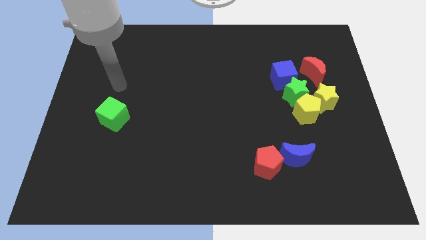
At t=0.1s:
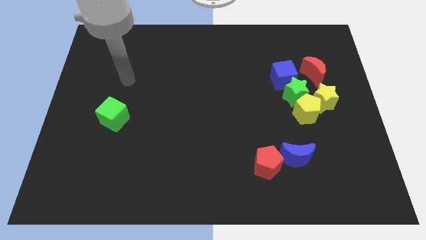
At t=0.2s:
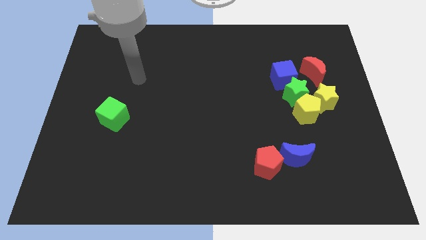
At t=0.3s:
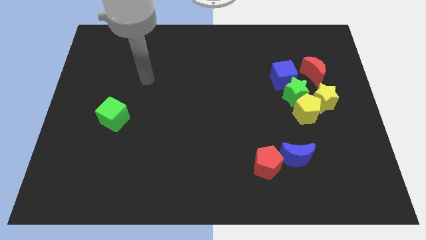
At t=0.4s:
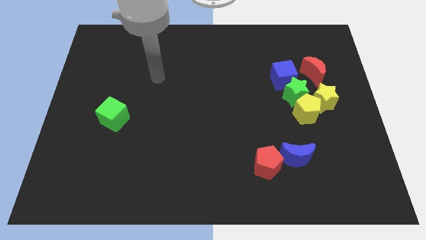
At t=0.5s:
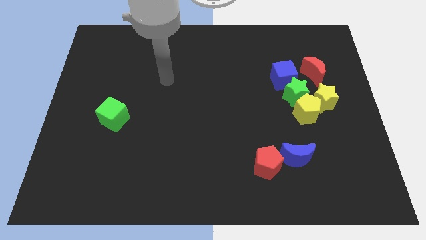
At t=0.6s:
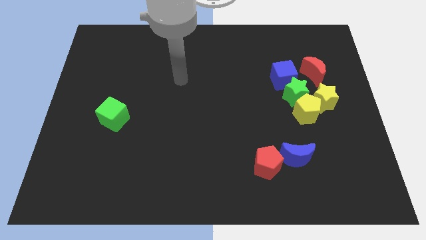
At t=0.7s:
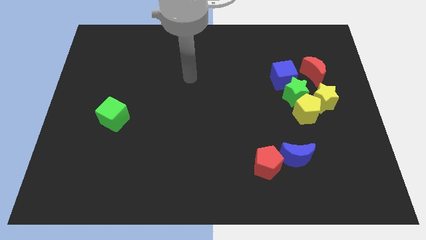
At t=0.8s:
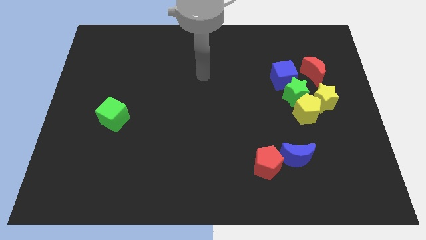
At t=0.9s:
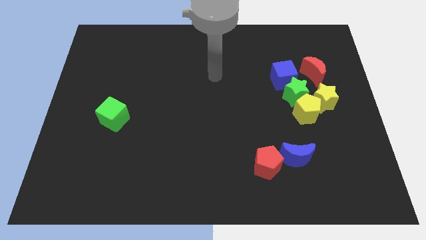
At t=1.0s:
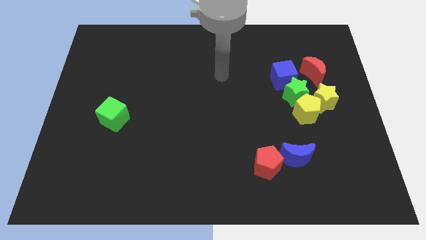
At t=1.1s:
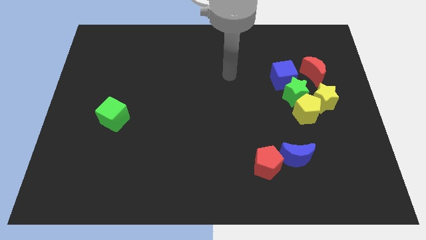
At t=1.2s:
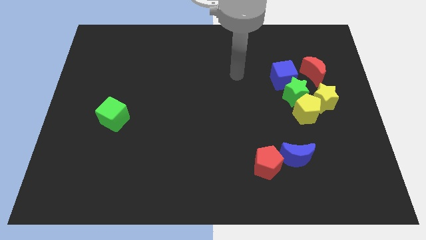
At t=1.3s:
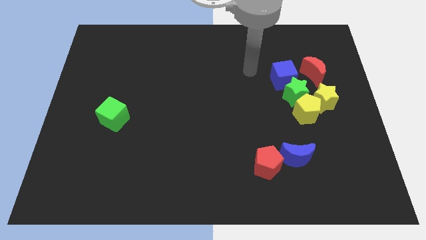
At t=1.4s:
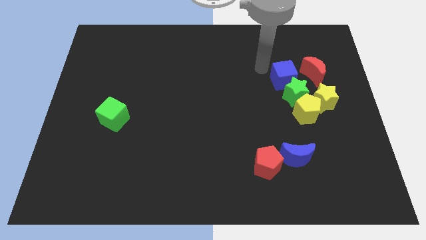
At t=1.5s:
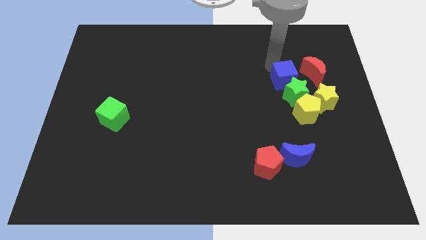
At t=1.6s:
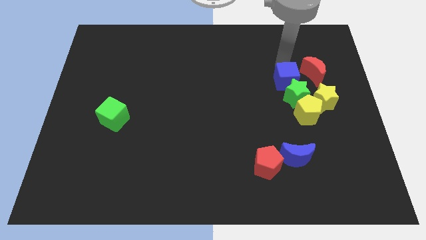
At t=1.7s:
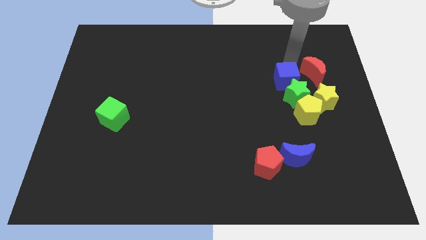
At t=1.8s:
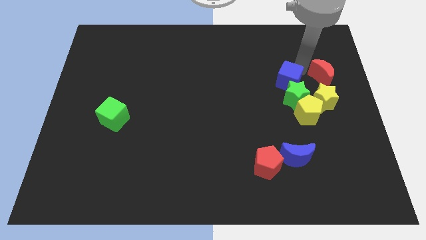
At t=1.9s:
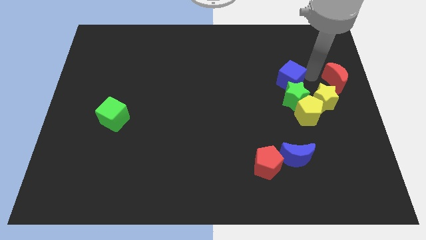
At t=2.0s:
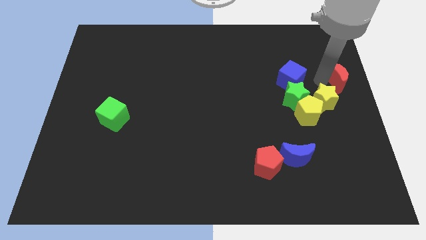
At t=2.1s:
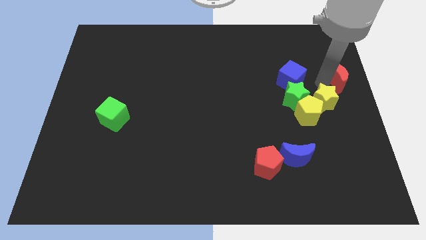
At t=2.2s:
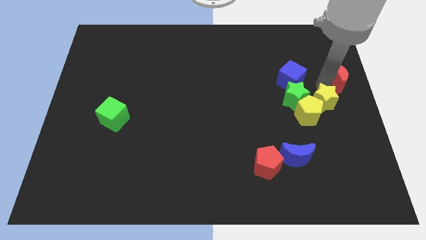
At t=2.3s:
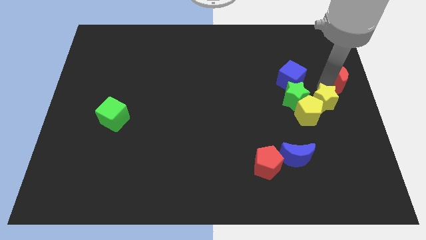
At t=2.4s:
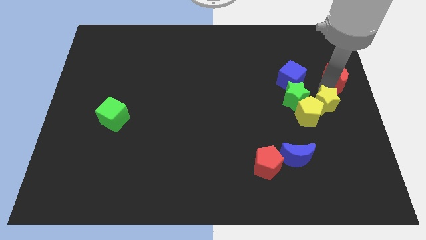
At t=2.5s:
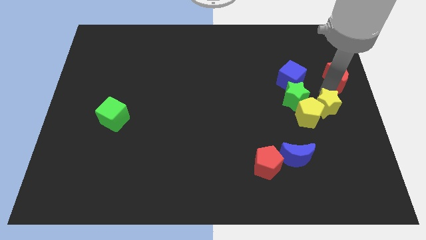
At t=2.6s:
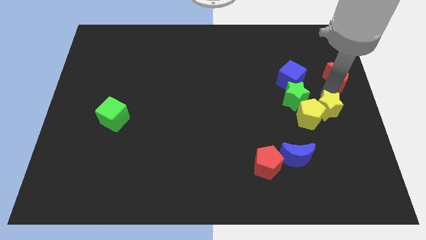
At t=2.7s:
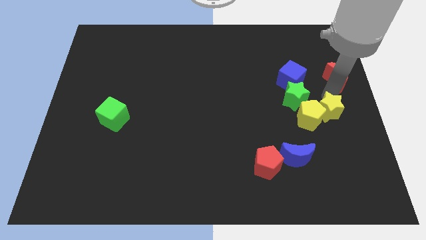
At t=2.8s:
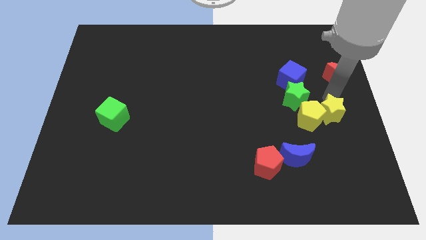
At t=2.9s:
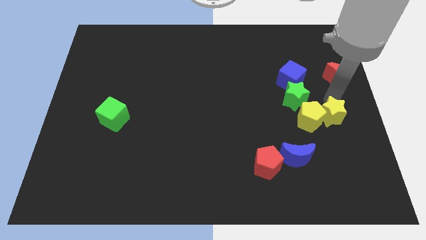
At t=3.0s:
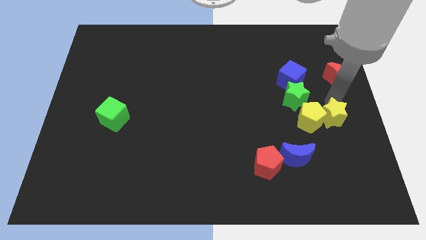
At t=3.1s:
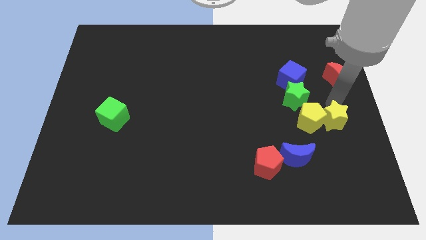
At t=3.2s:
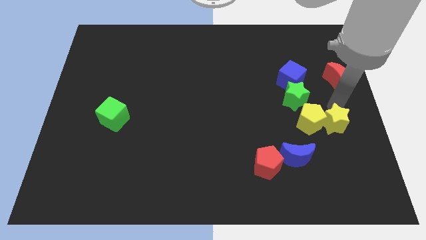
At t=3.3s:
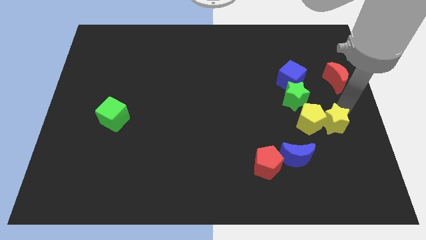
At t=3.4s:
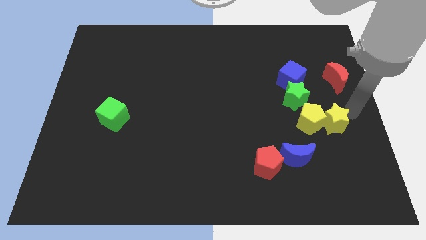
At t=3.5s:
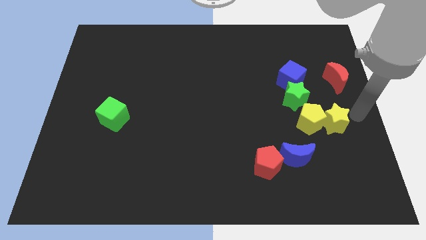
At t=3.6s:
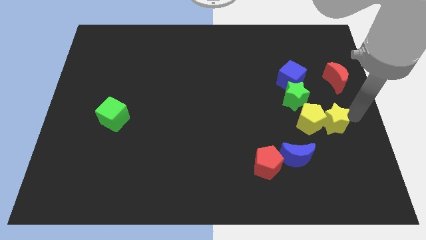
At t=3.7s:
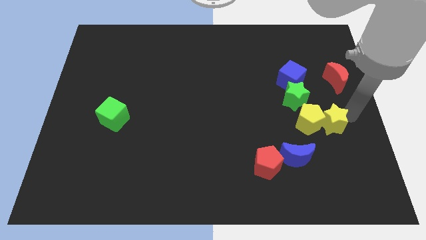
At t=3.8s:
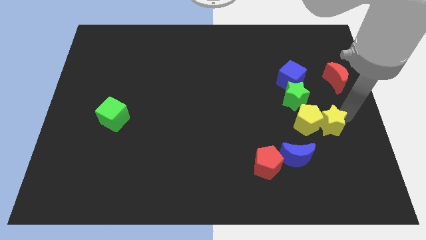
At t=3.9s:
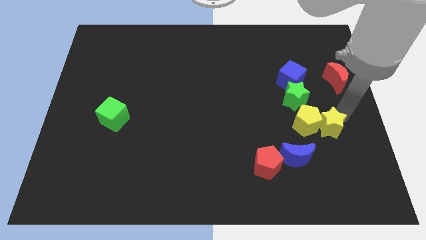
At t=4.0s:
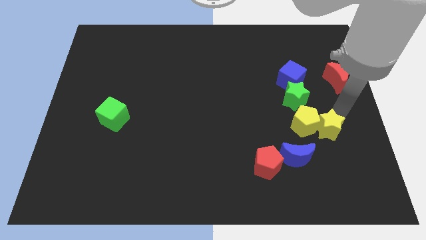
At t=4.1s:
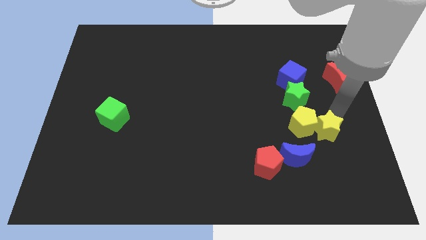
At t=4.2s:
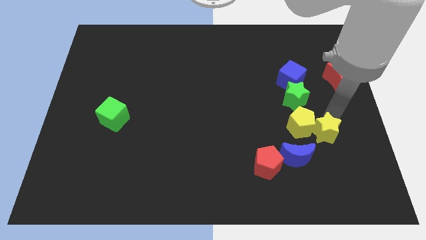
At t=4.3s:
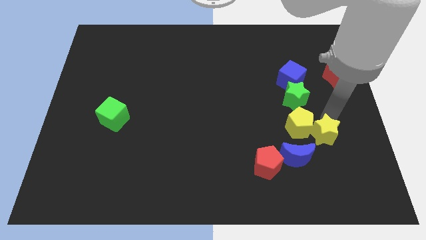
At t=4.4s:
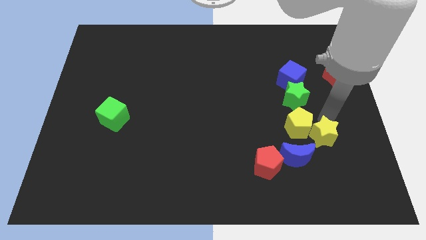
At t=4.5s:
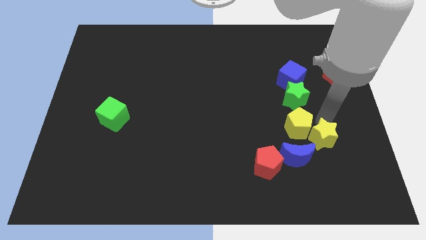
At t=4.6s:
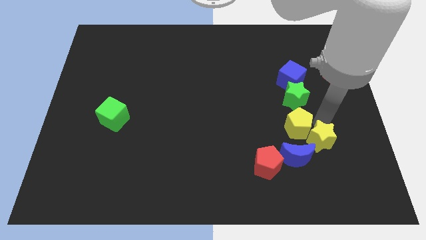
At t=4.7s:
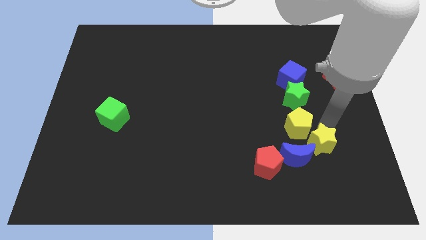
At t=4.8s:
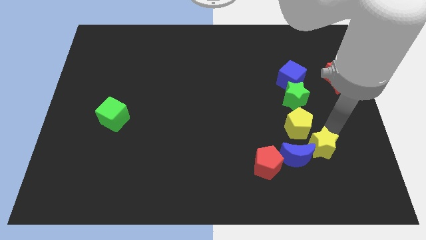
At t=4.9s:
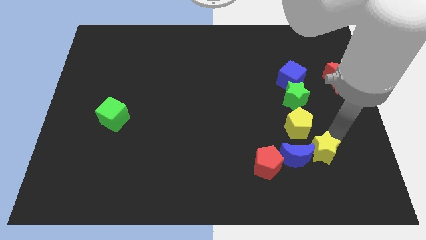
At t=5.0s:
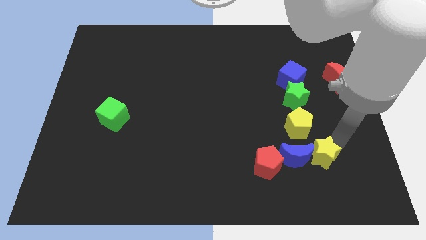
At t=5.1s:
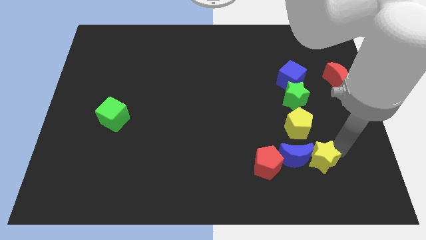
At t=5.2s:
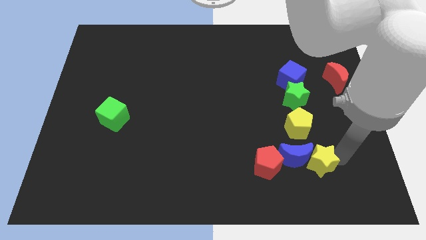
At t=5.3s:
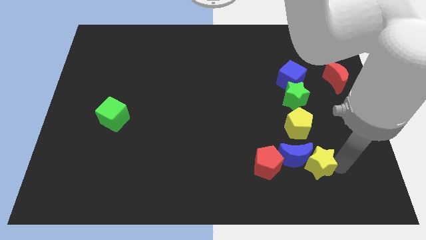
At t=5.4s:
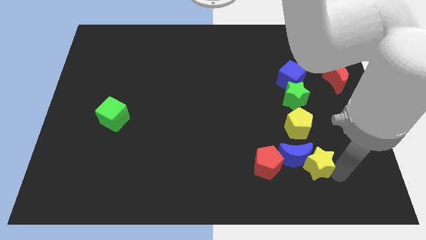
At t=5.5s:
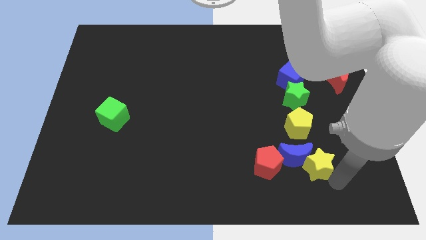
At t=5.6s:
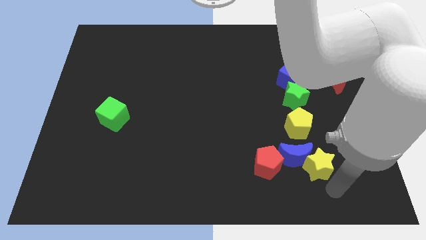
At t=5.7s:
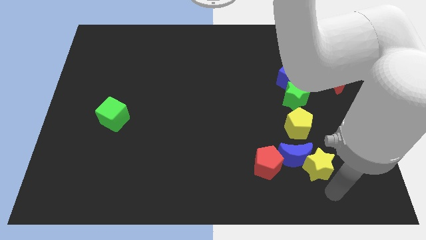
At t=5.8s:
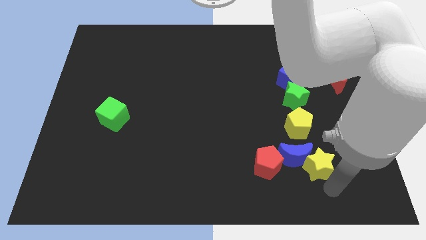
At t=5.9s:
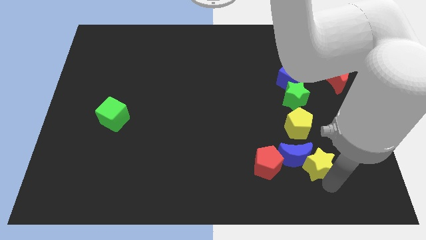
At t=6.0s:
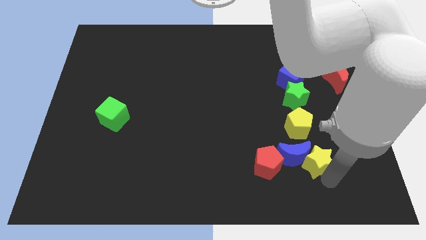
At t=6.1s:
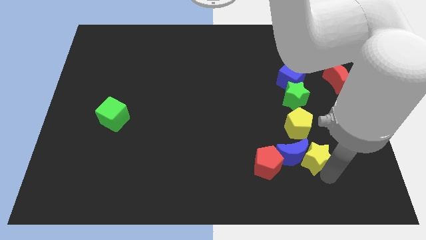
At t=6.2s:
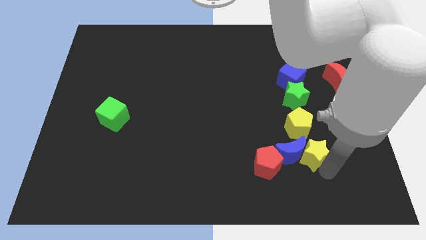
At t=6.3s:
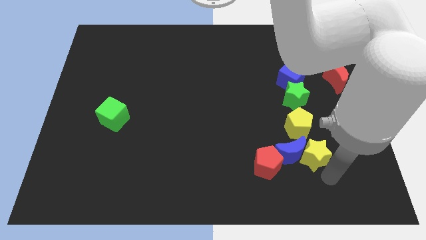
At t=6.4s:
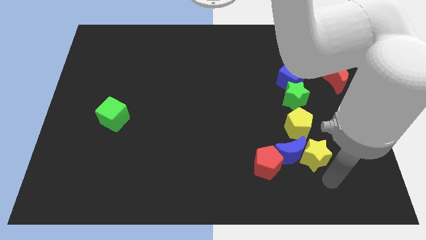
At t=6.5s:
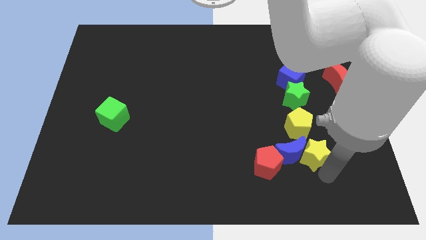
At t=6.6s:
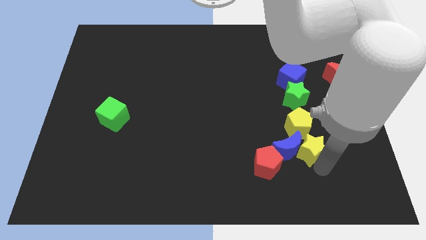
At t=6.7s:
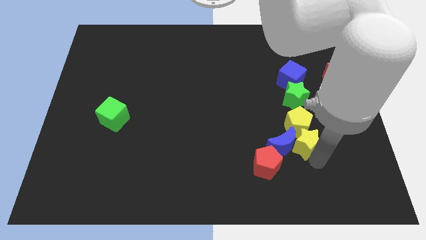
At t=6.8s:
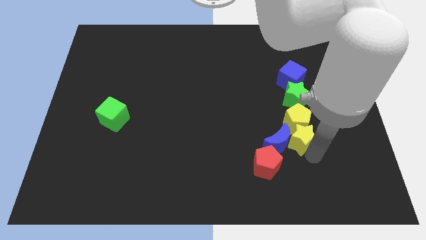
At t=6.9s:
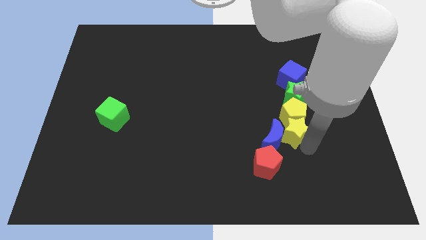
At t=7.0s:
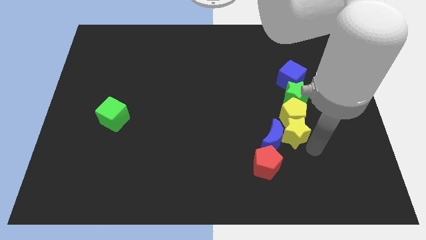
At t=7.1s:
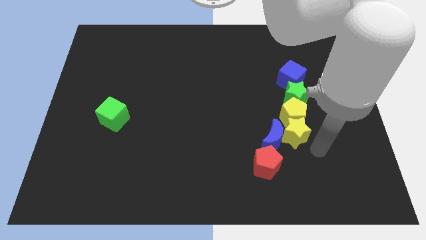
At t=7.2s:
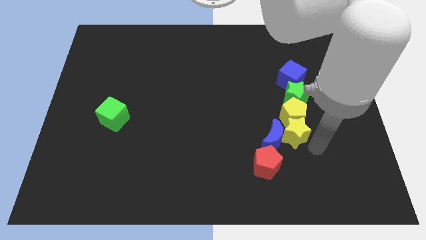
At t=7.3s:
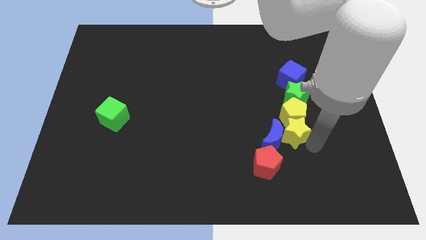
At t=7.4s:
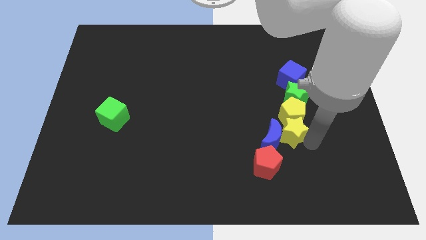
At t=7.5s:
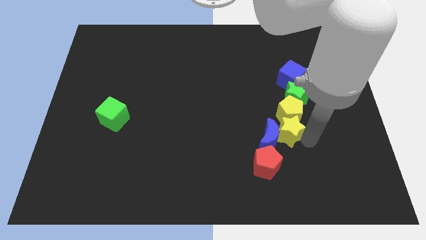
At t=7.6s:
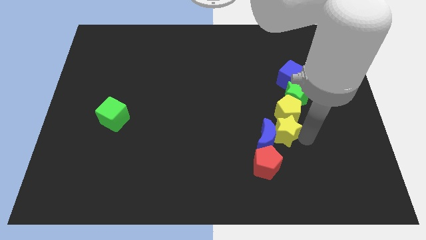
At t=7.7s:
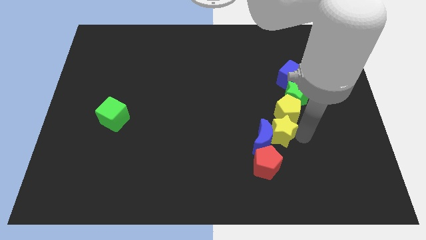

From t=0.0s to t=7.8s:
move the yellow star left a bit

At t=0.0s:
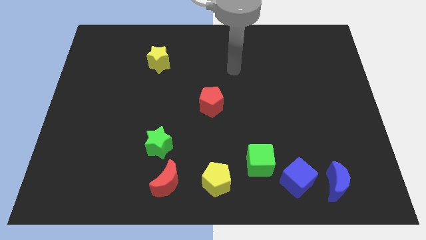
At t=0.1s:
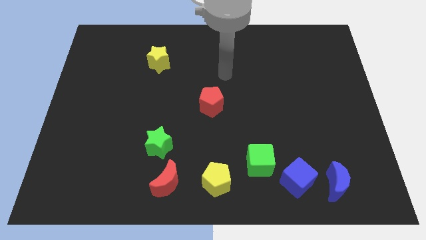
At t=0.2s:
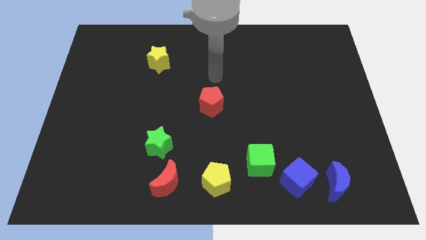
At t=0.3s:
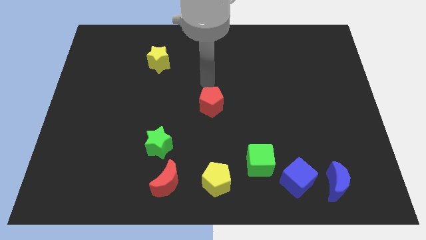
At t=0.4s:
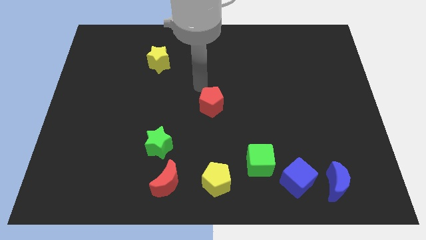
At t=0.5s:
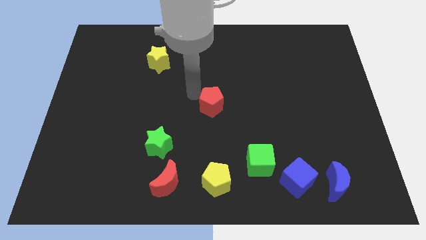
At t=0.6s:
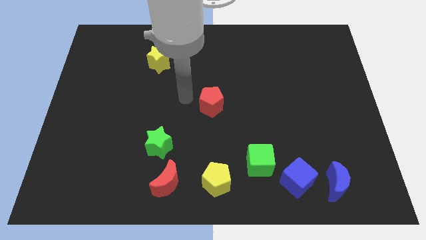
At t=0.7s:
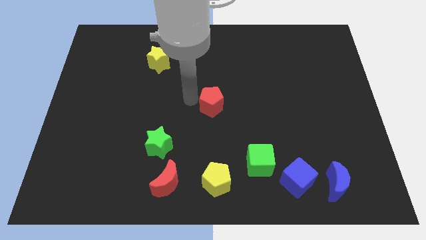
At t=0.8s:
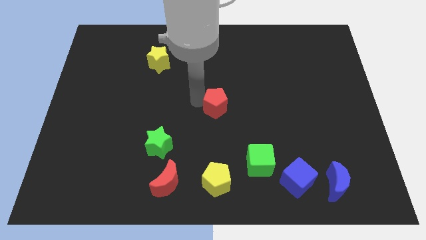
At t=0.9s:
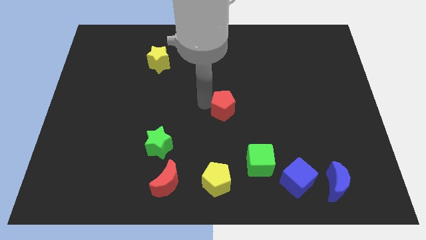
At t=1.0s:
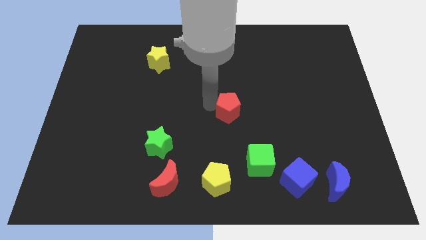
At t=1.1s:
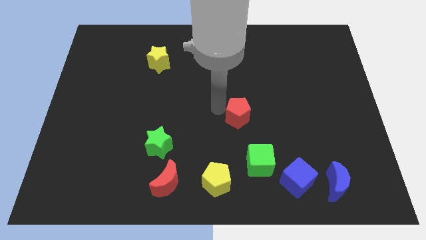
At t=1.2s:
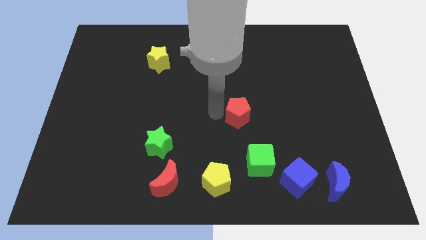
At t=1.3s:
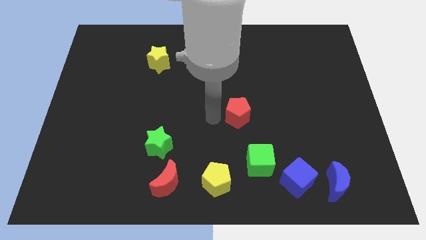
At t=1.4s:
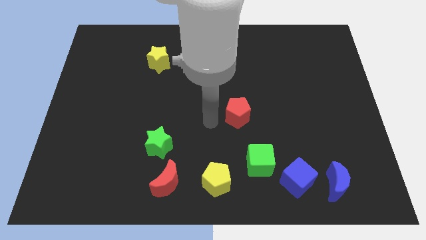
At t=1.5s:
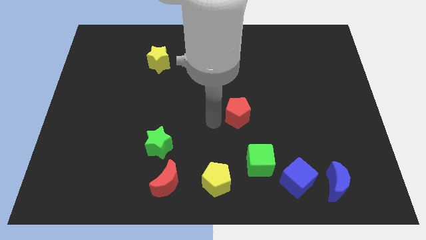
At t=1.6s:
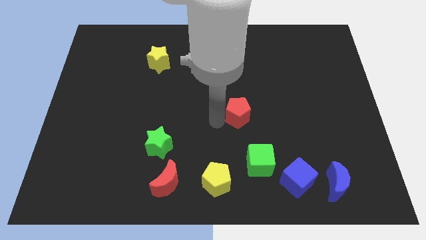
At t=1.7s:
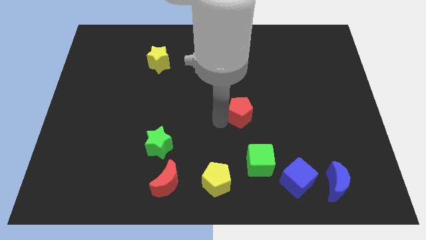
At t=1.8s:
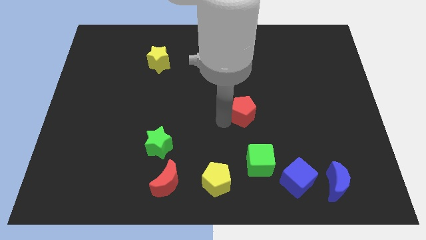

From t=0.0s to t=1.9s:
move the red pentagon a bit to the right
